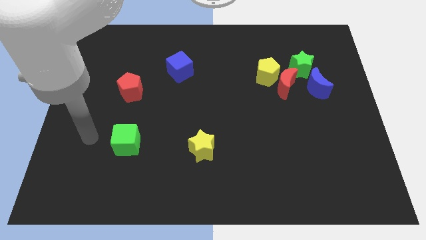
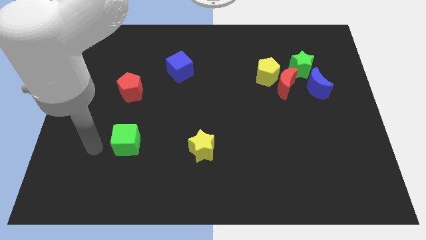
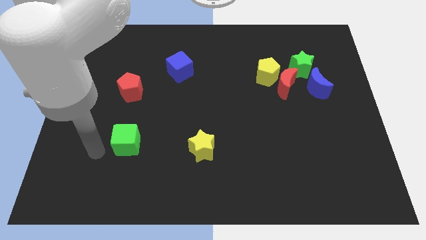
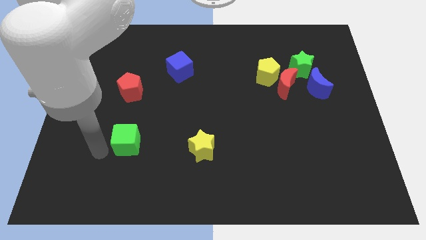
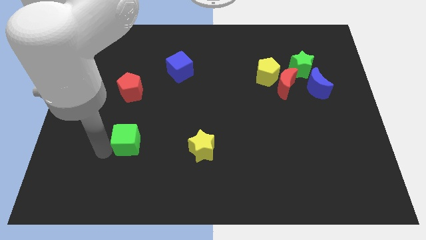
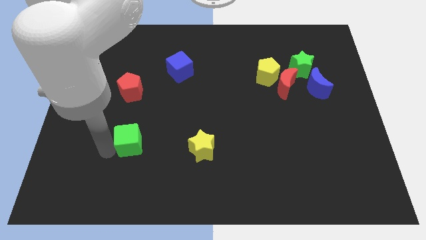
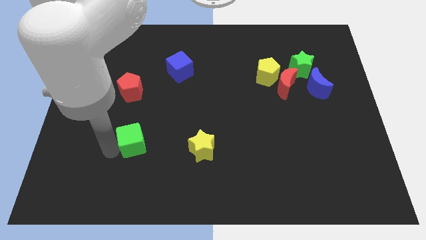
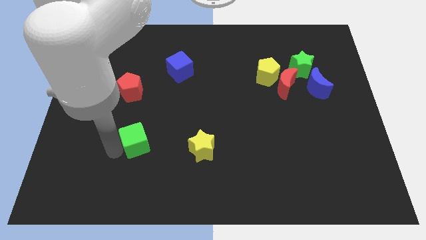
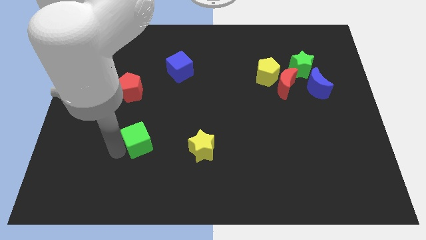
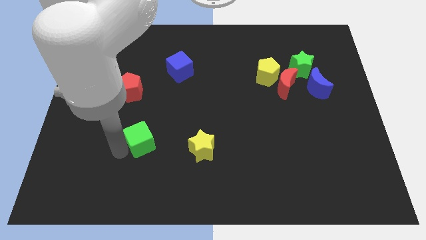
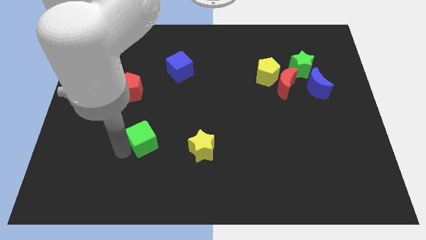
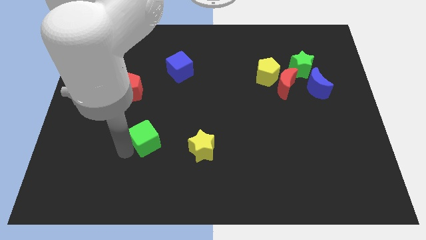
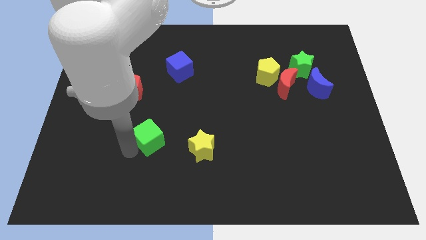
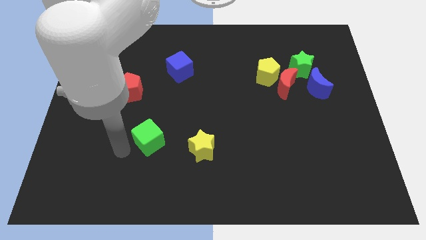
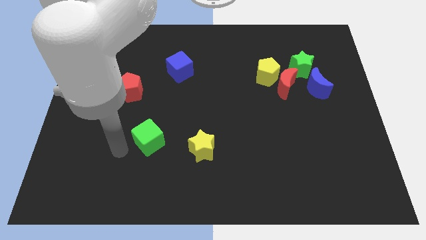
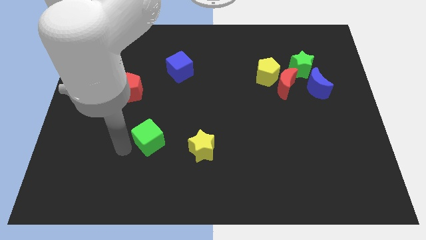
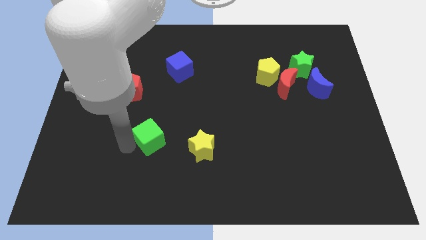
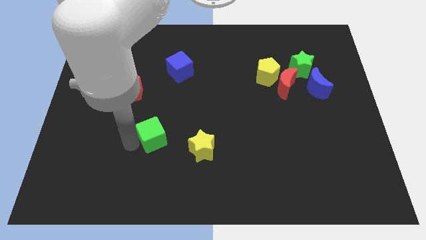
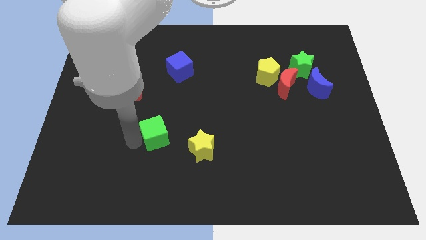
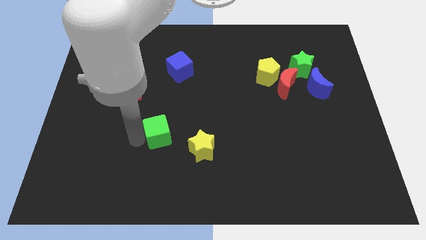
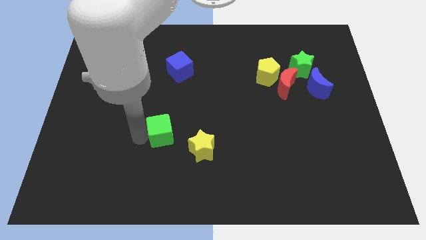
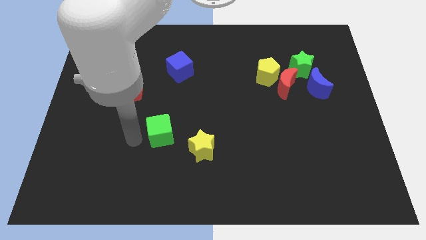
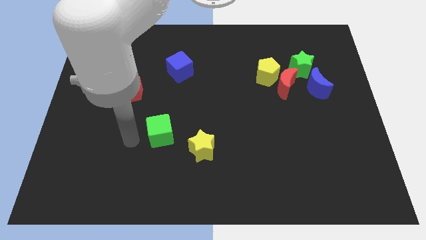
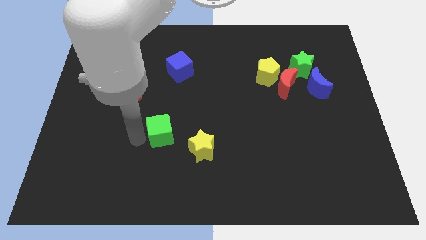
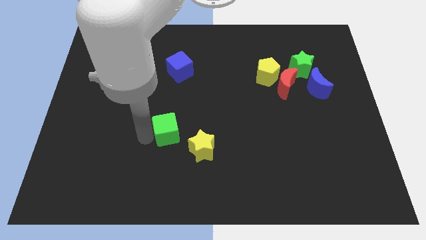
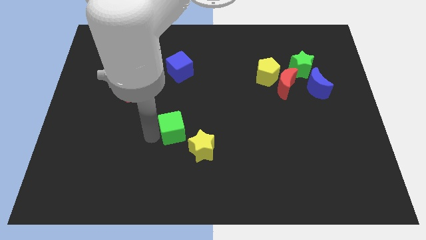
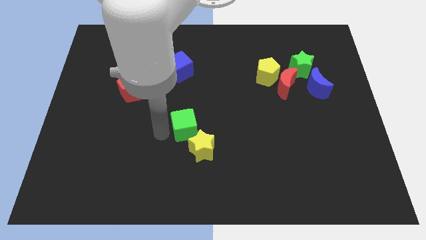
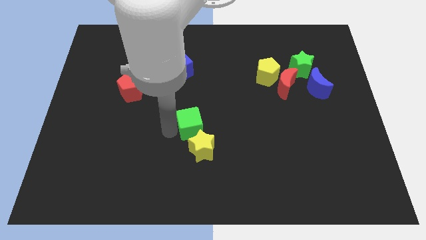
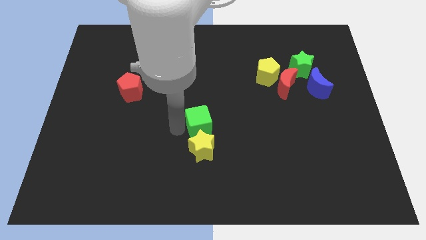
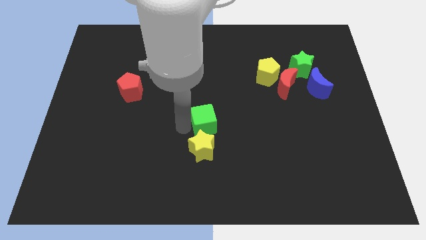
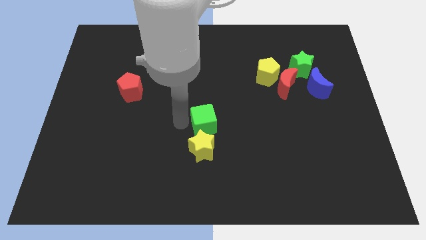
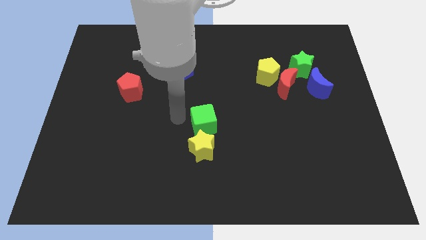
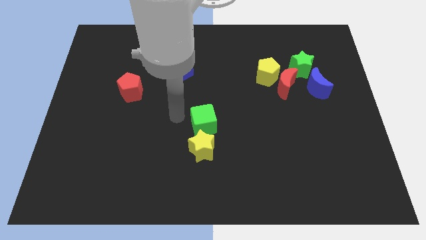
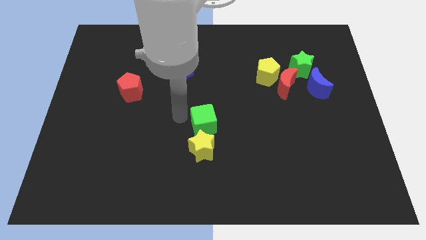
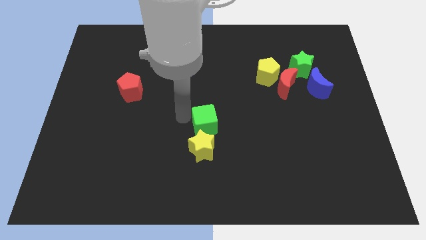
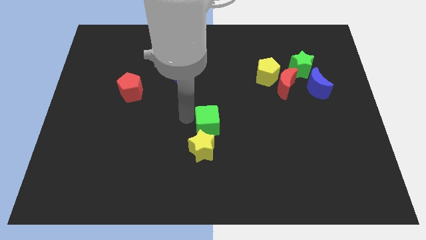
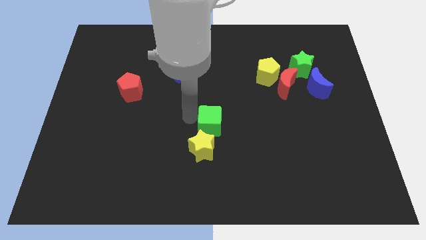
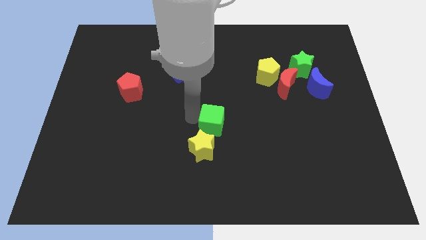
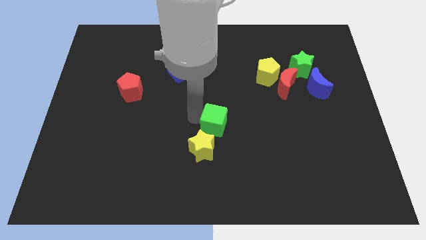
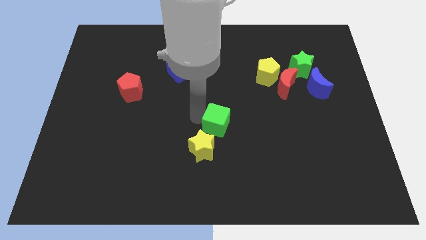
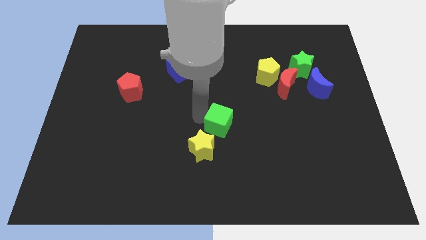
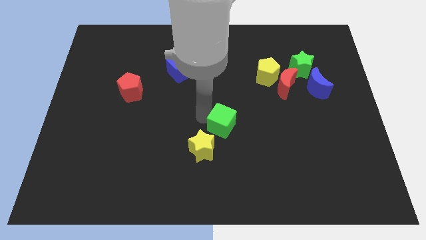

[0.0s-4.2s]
slide the green cube to the right

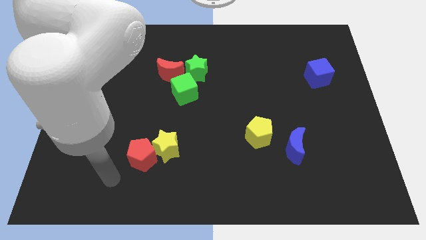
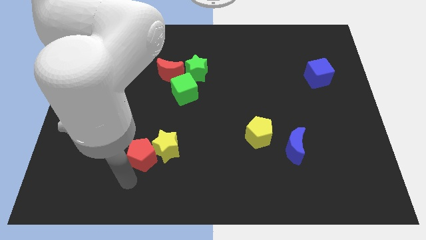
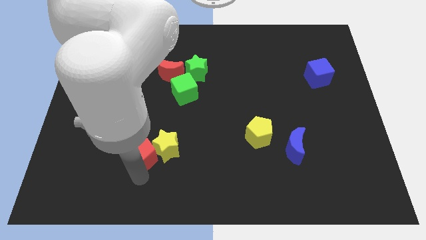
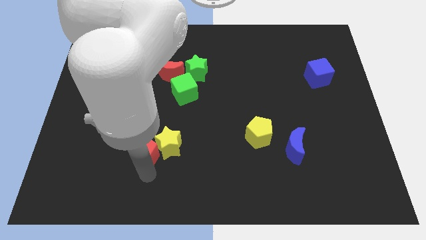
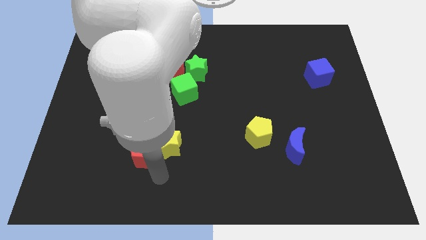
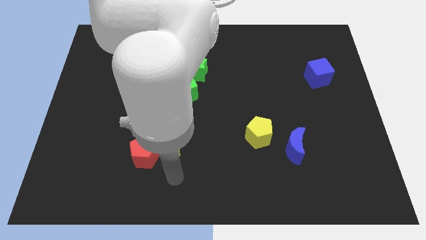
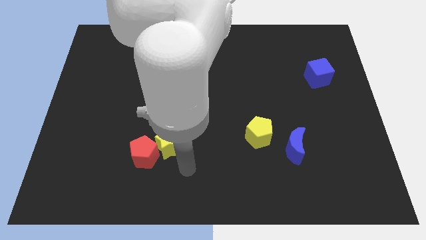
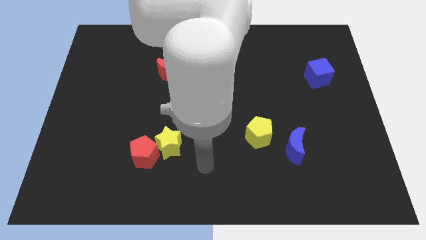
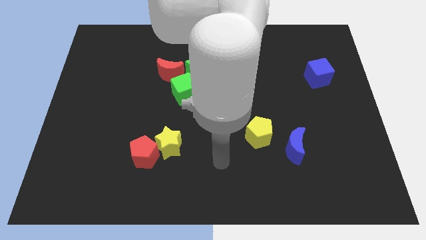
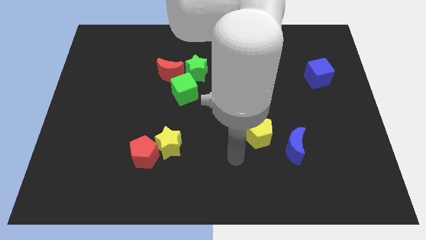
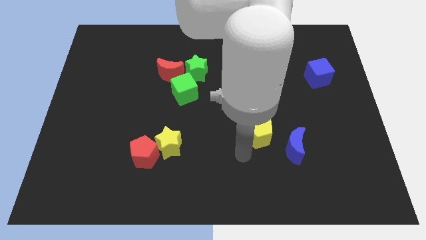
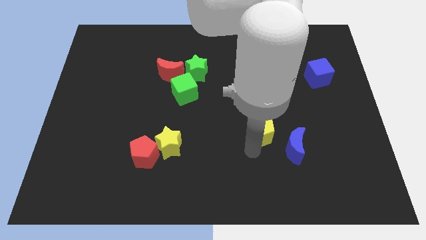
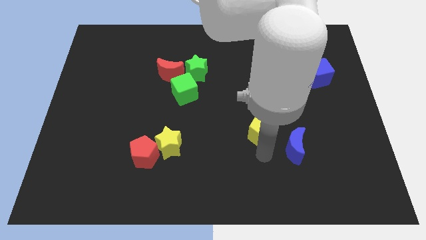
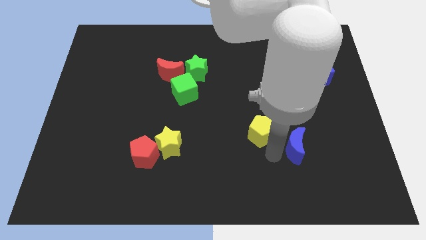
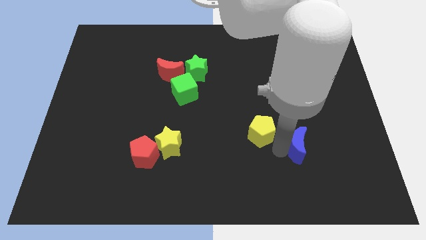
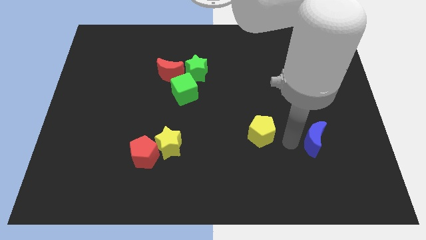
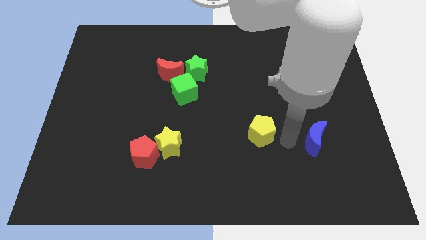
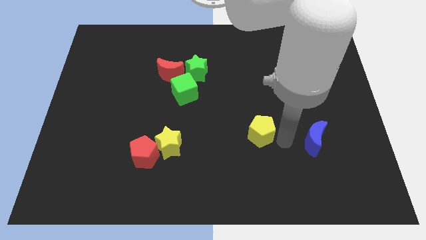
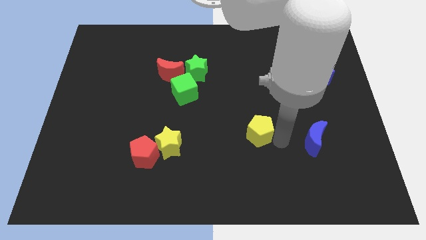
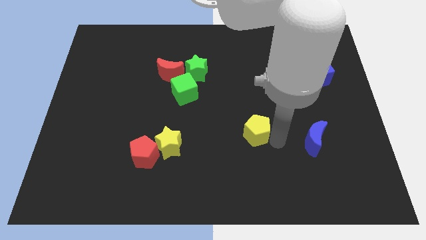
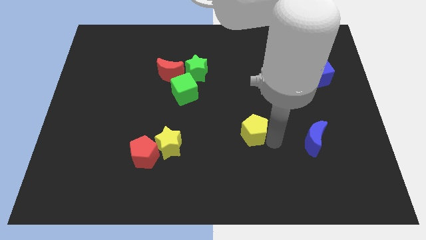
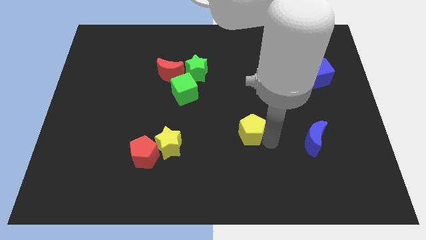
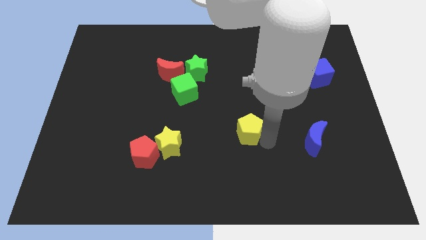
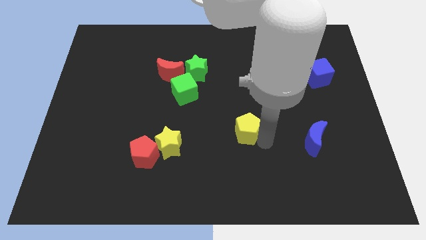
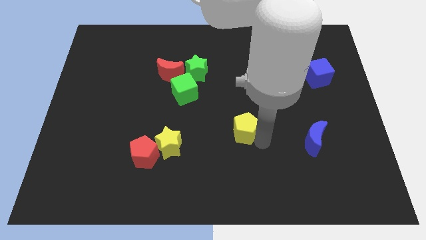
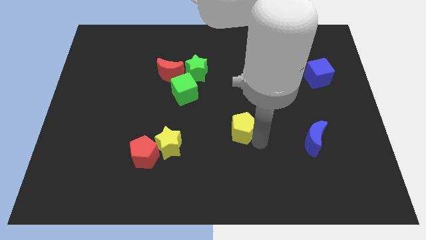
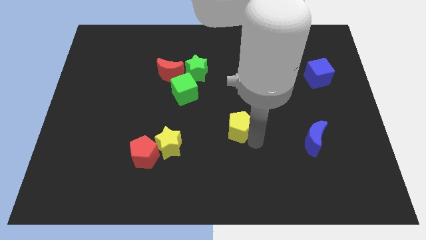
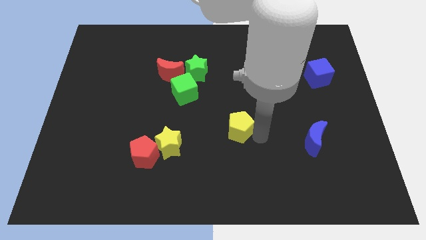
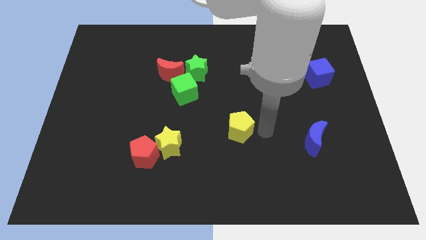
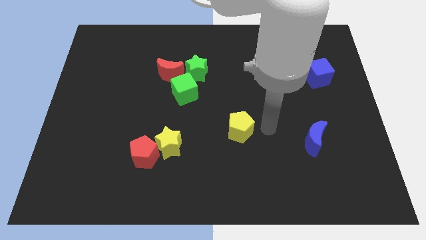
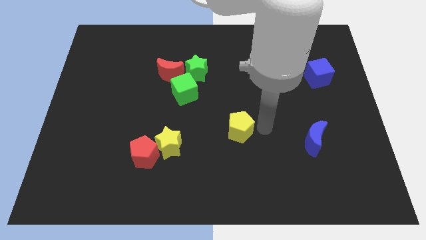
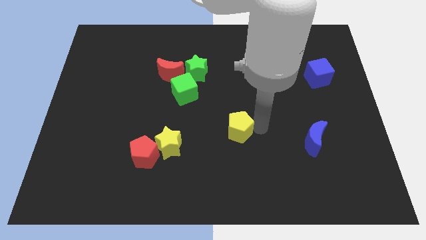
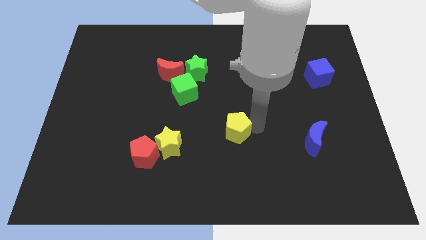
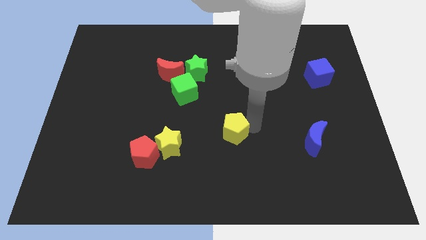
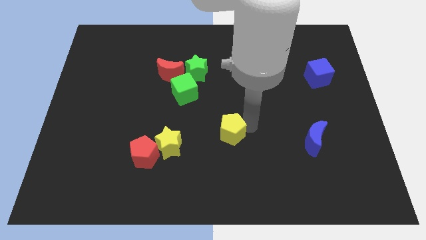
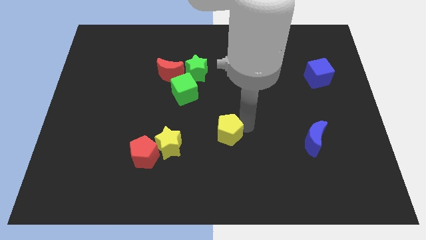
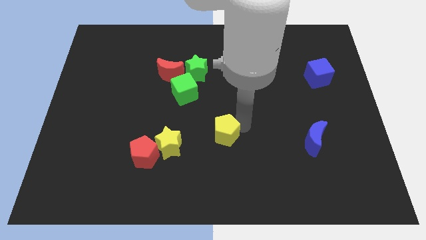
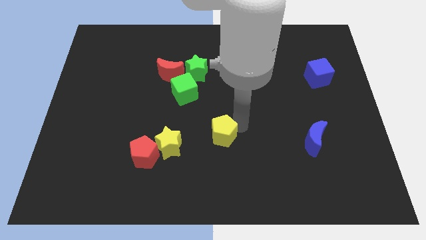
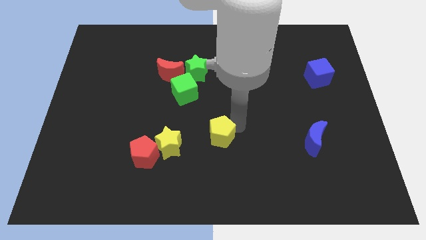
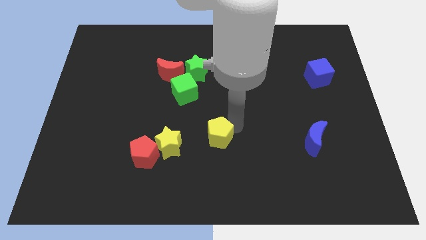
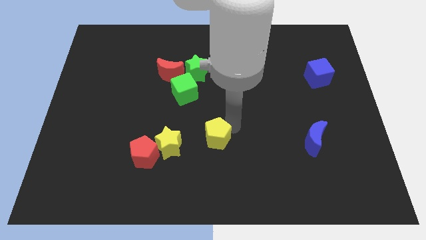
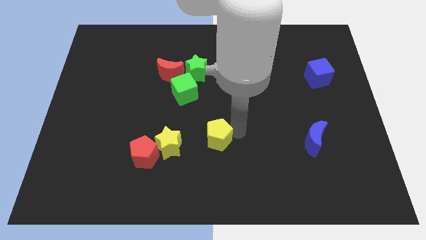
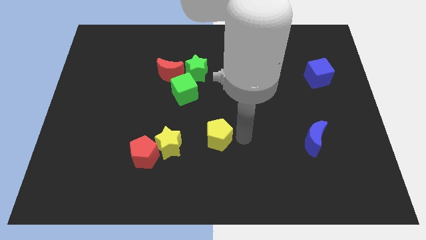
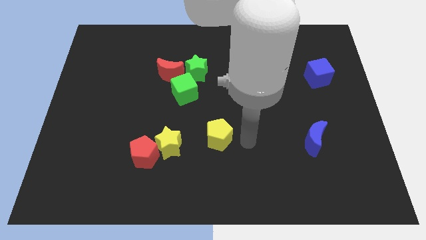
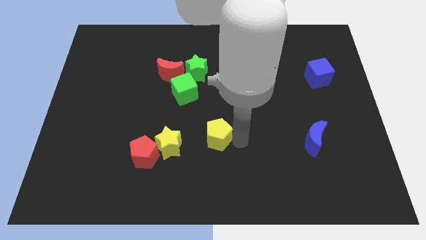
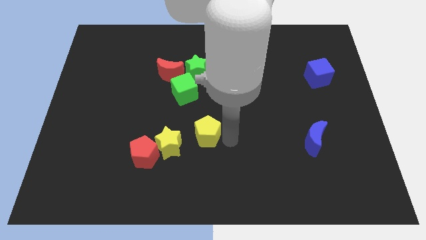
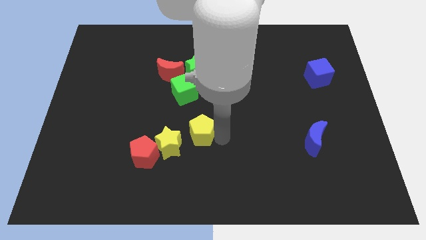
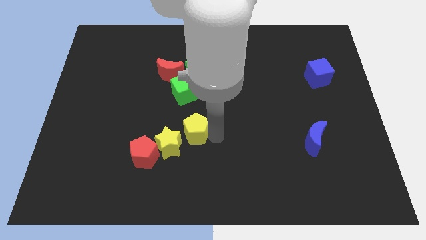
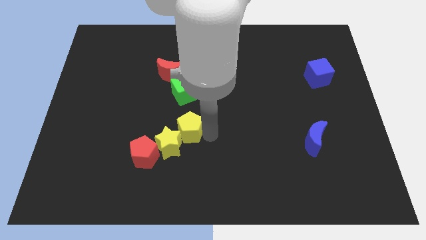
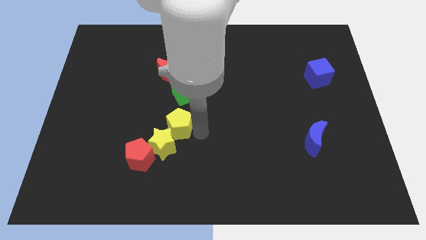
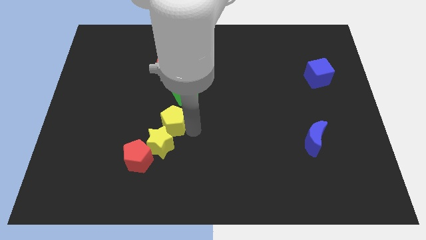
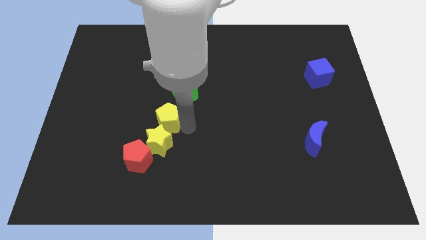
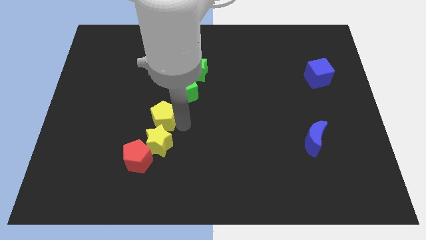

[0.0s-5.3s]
move the yellow pentagon to the left
